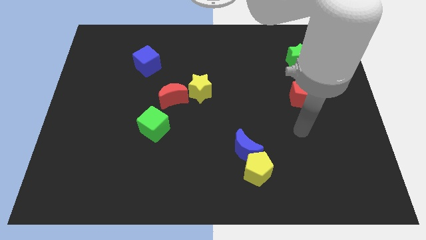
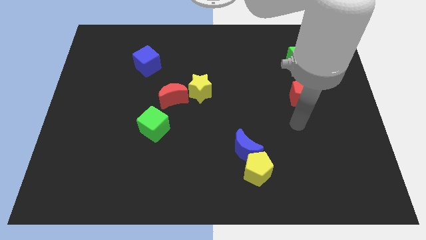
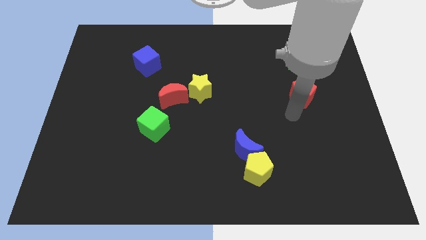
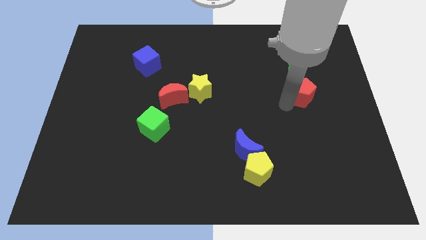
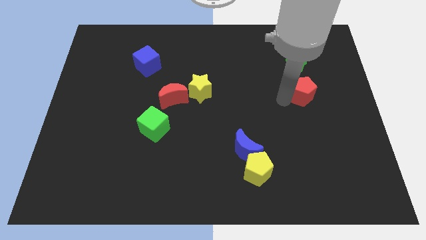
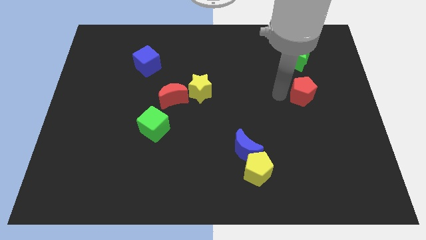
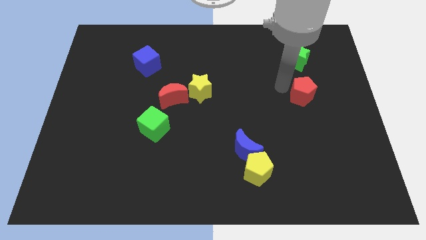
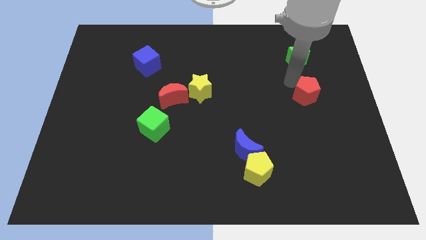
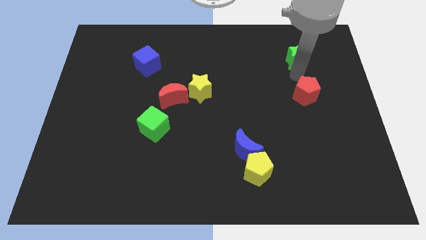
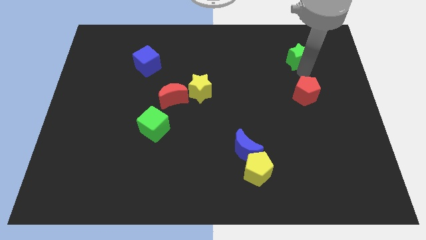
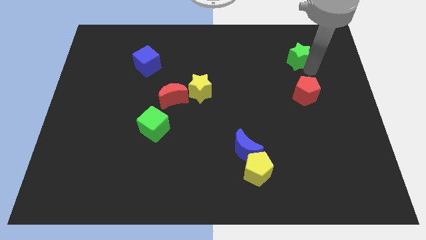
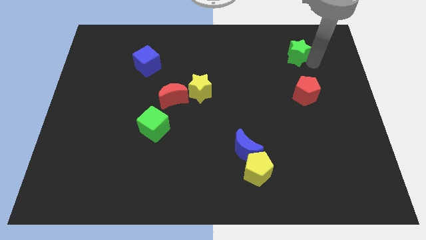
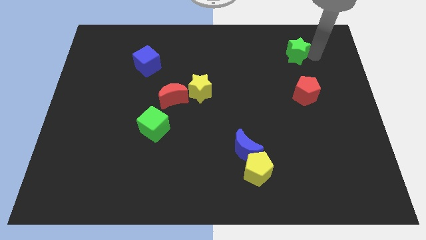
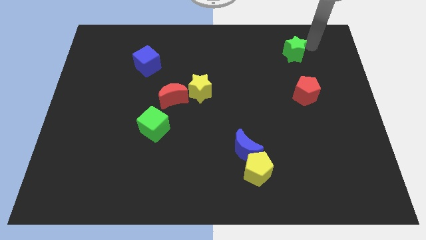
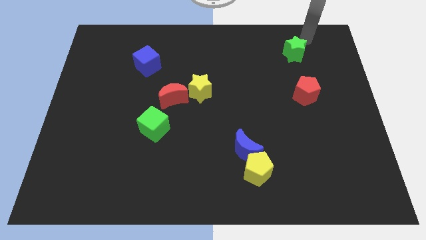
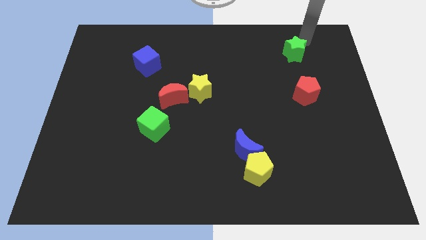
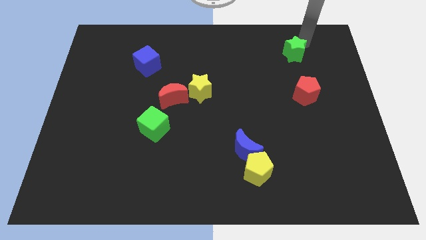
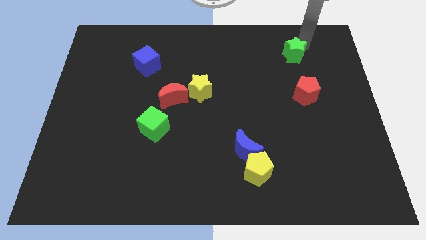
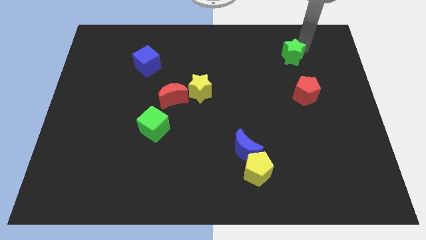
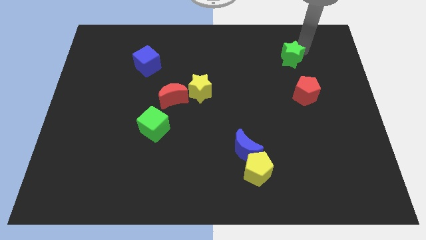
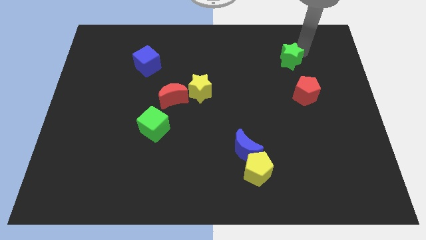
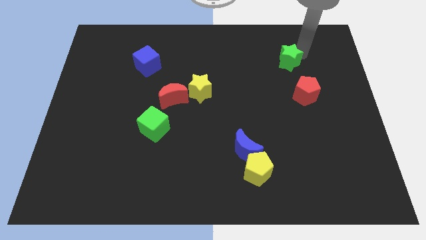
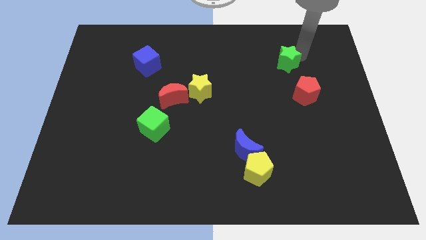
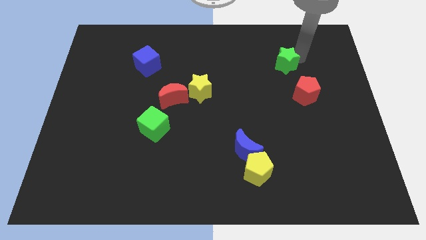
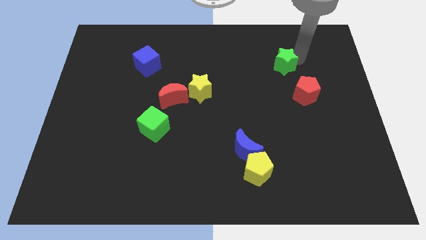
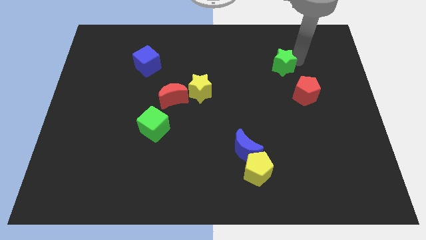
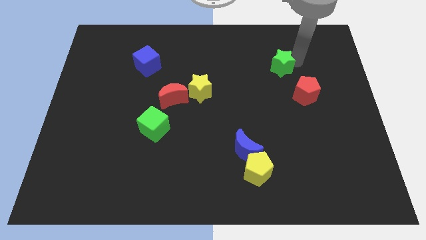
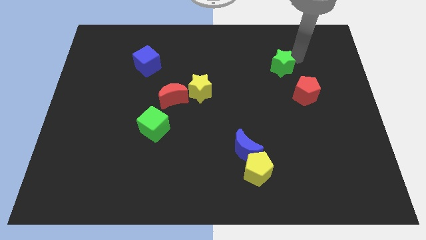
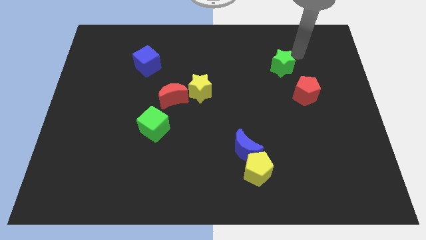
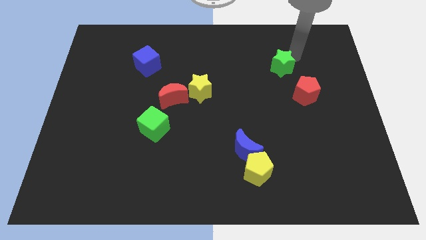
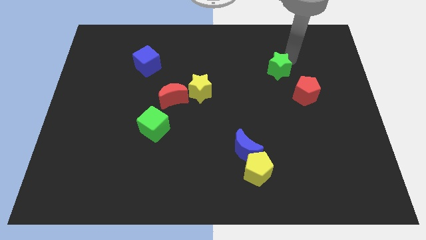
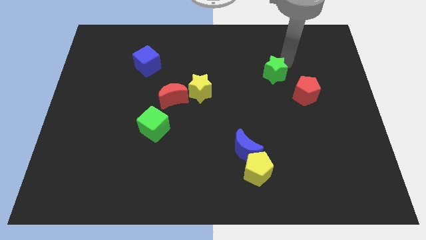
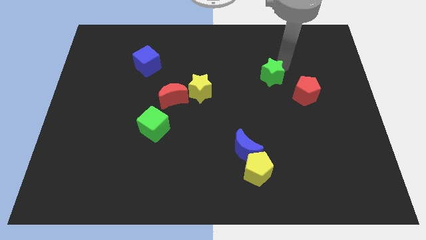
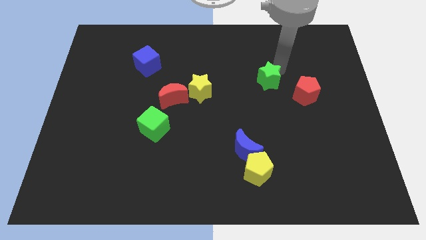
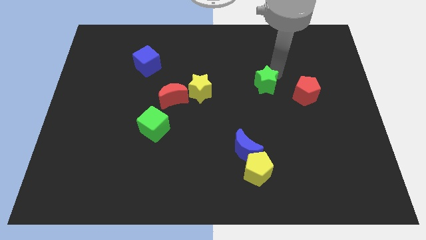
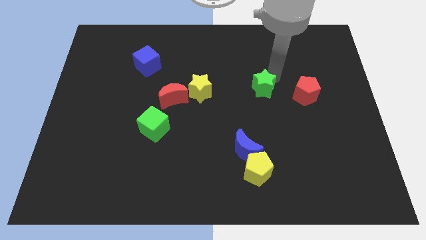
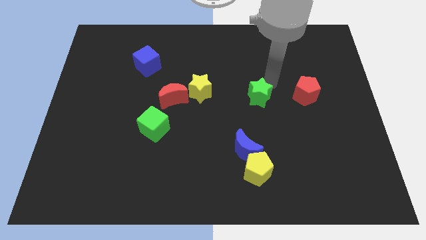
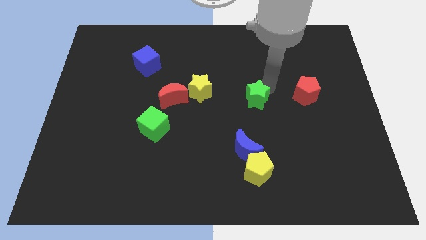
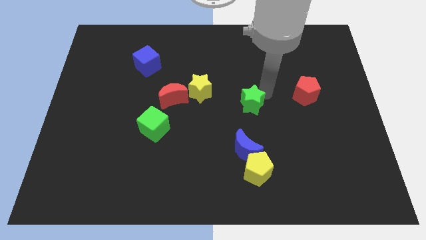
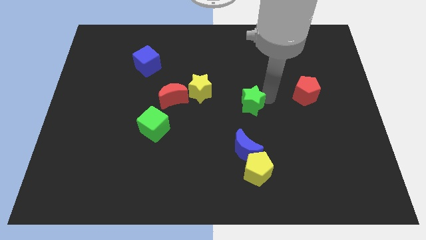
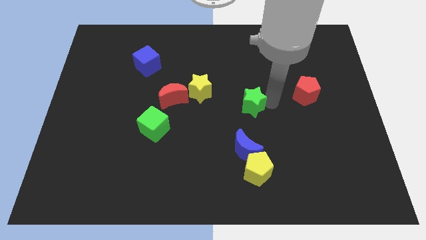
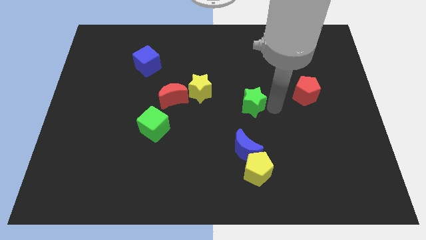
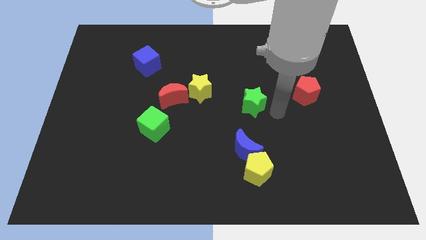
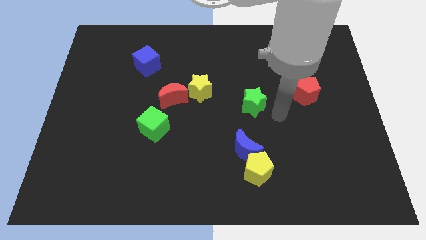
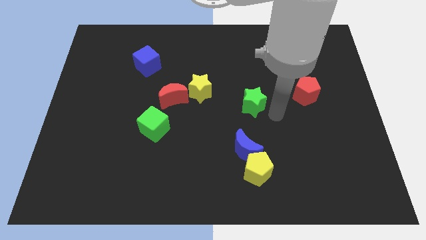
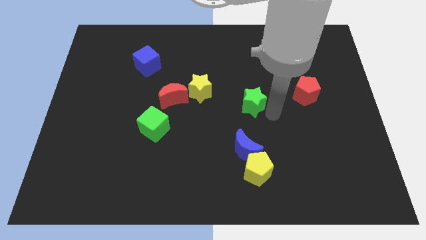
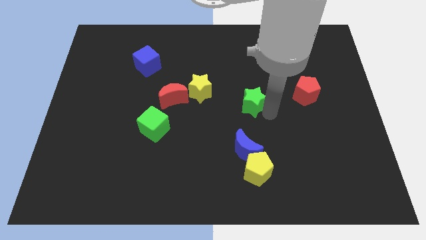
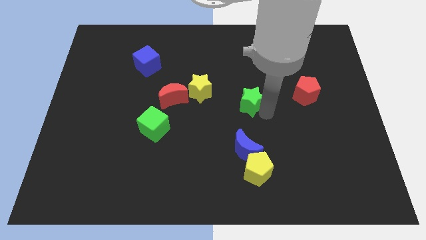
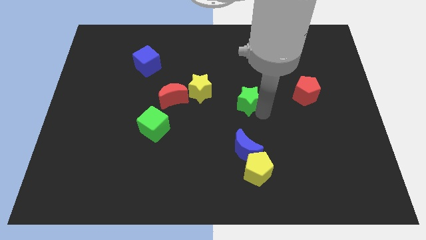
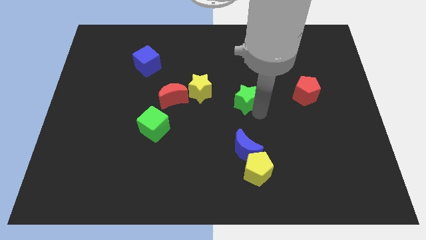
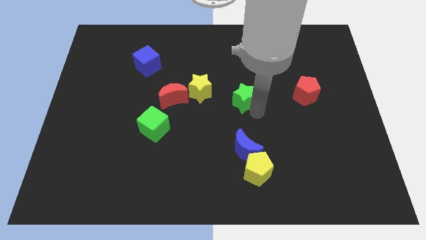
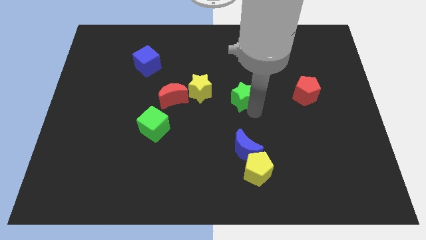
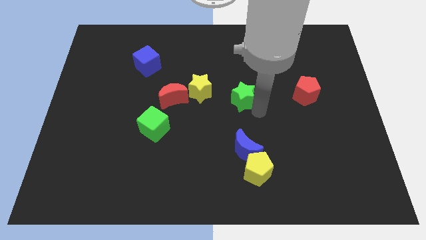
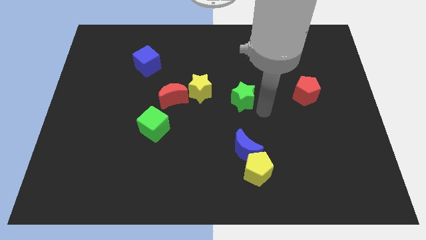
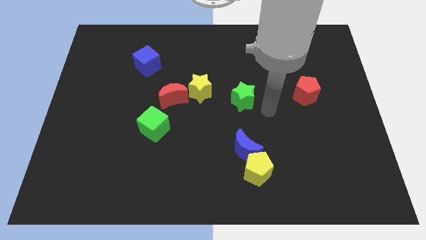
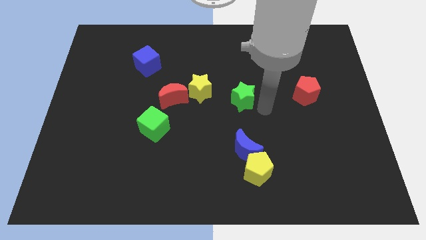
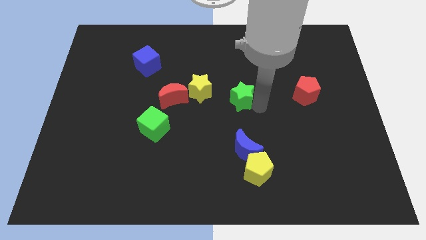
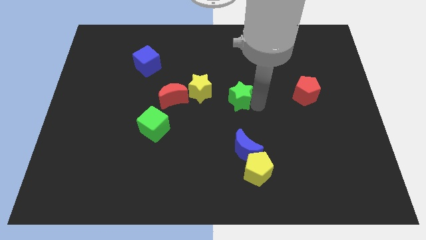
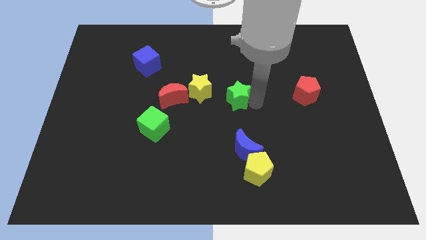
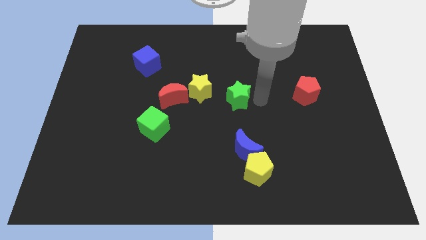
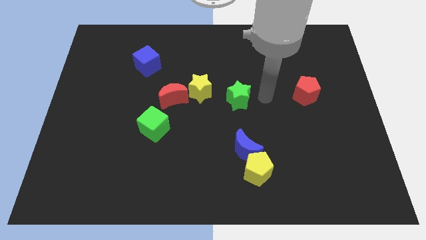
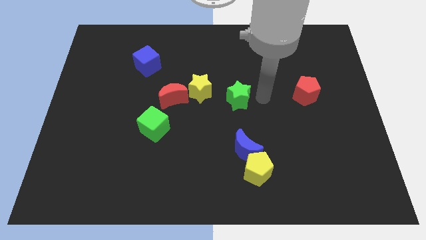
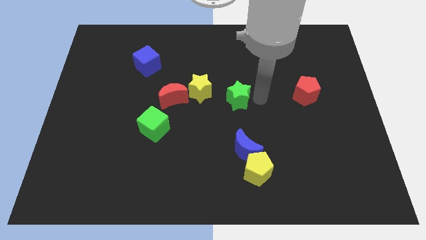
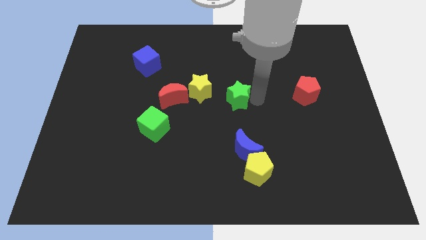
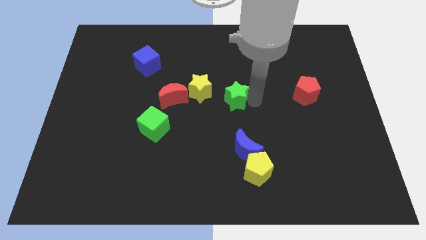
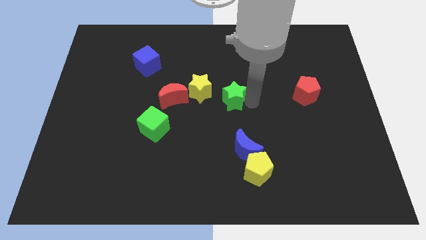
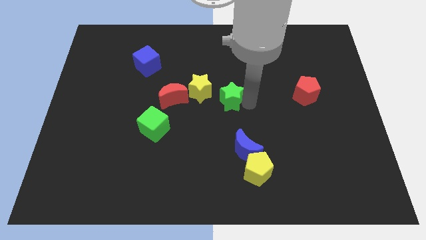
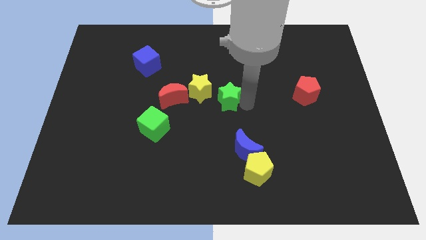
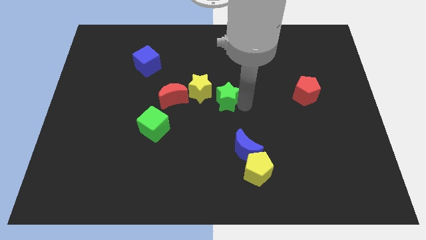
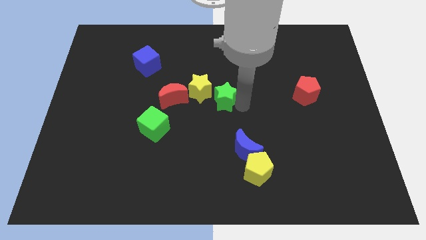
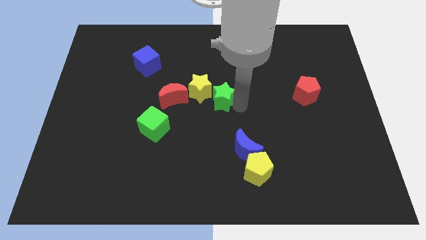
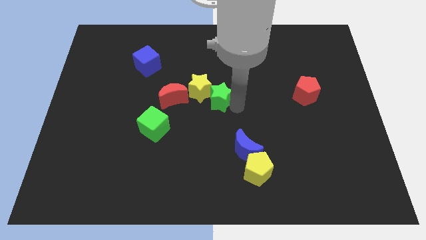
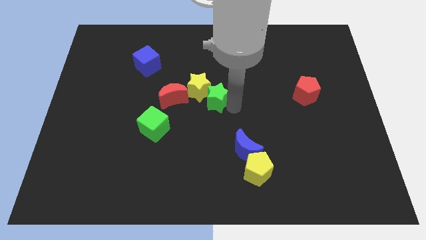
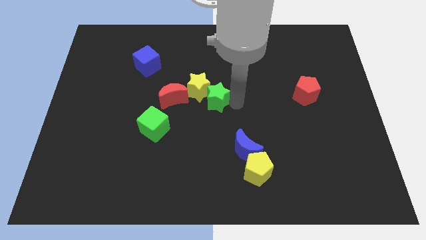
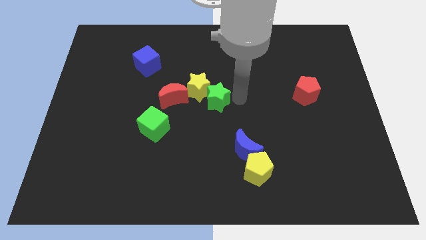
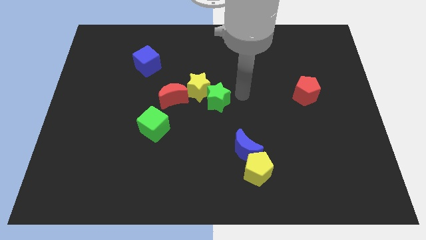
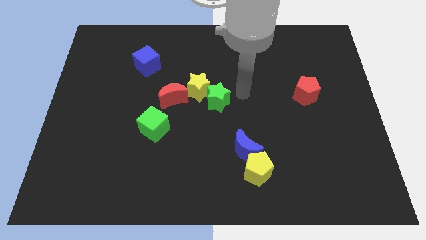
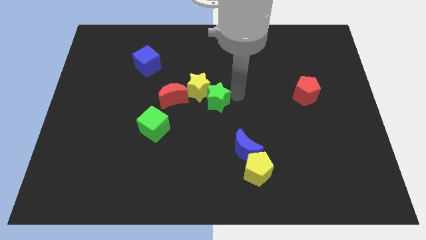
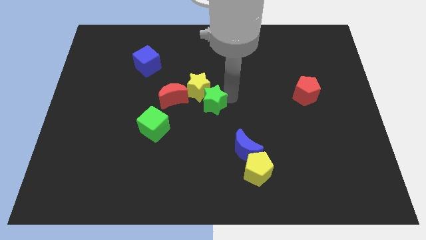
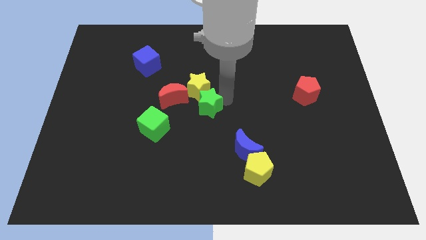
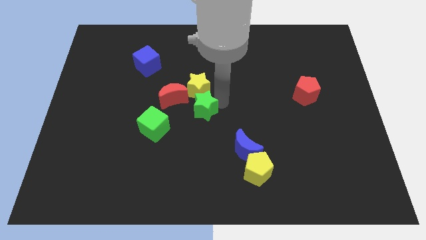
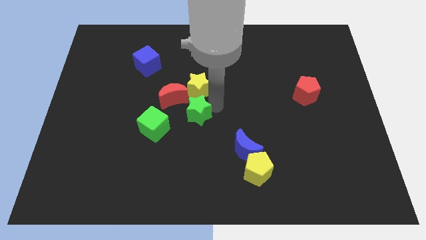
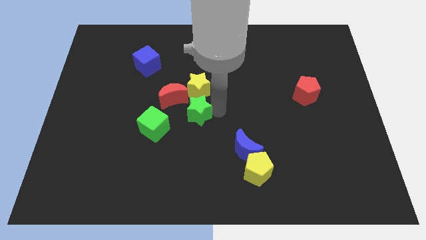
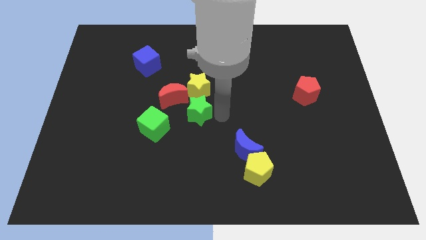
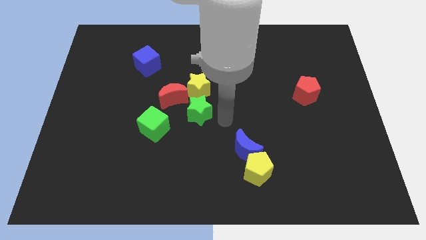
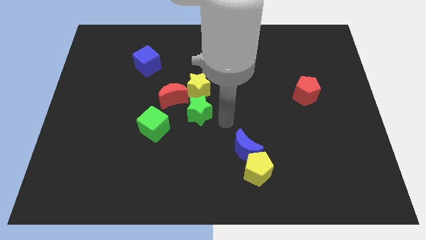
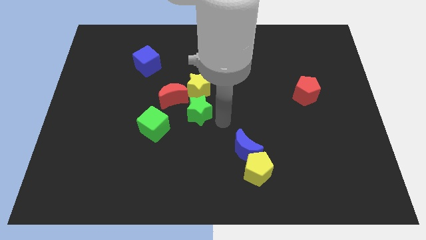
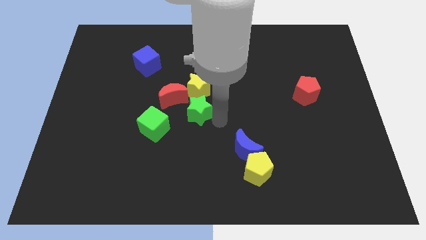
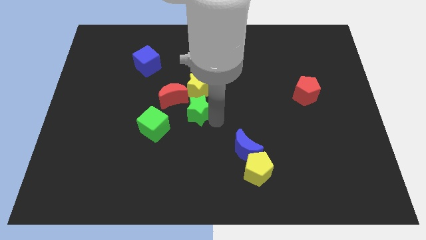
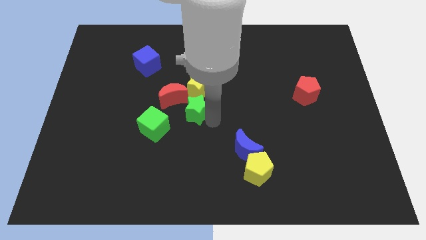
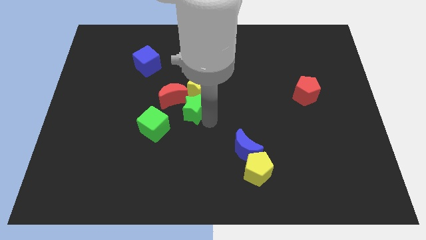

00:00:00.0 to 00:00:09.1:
put the green star to the bottom left side of the yellow star
